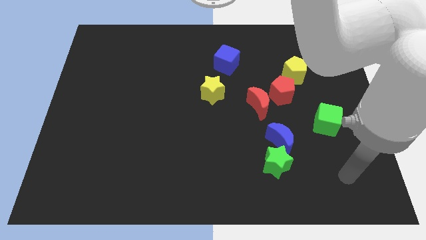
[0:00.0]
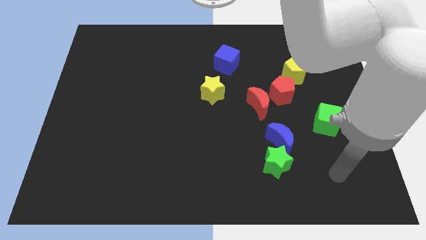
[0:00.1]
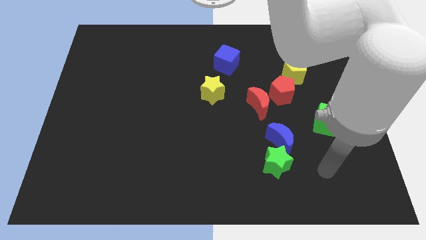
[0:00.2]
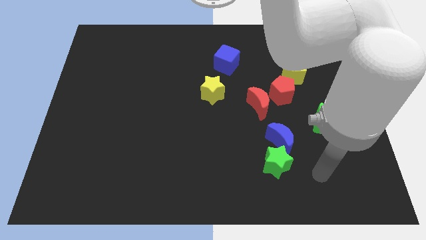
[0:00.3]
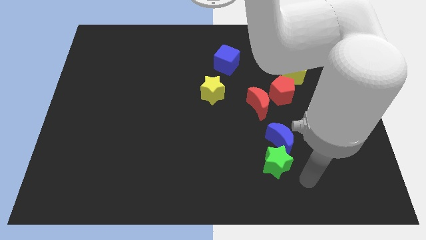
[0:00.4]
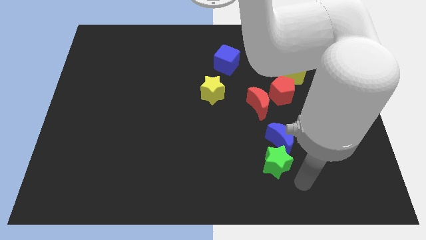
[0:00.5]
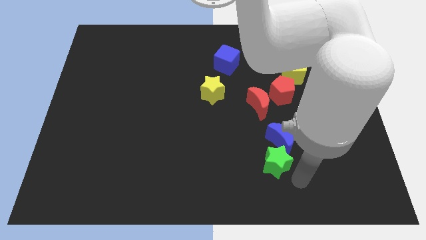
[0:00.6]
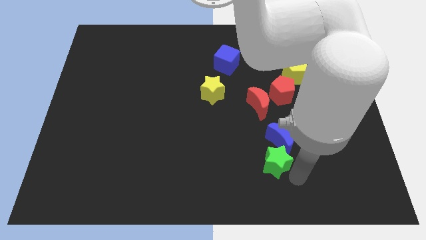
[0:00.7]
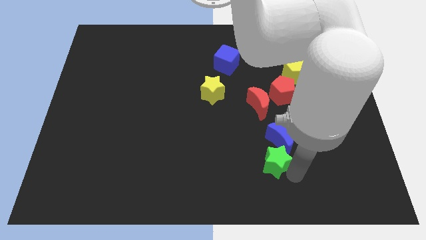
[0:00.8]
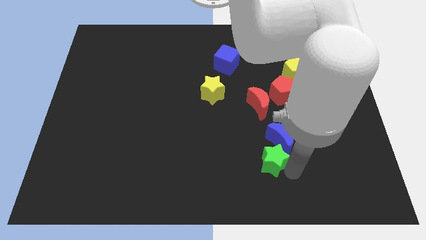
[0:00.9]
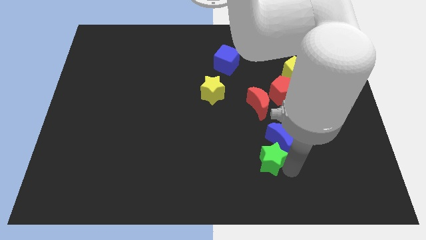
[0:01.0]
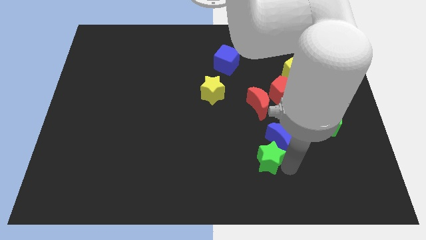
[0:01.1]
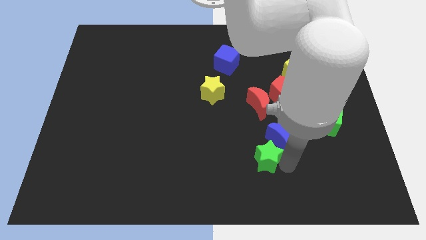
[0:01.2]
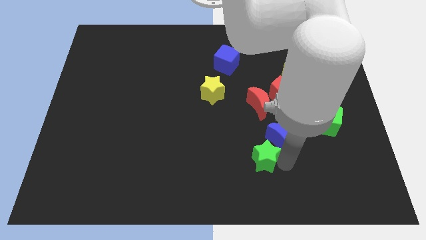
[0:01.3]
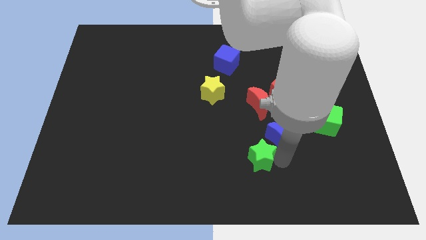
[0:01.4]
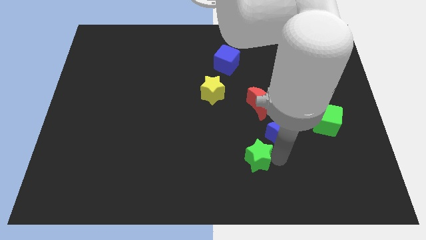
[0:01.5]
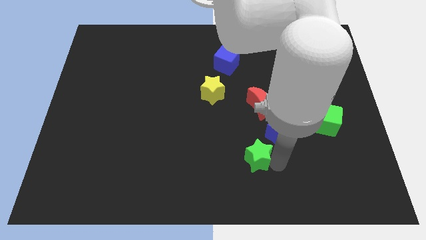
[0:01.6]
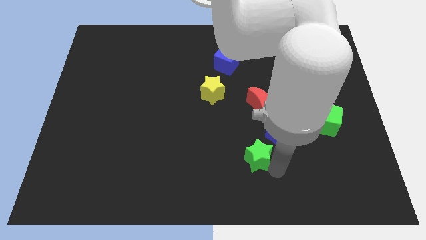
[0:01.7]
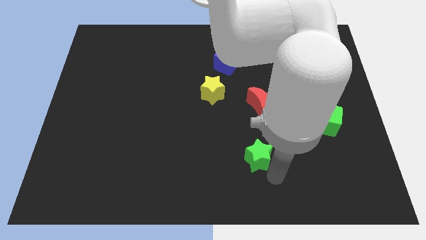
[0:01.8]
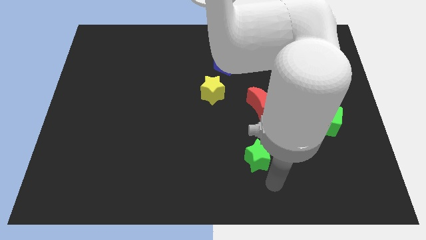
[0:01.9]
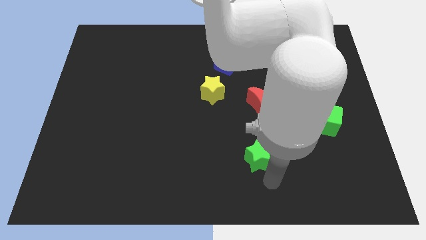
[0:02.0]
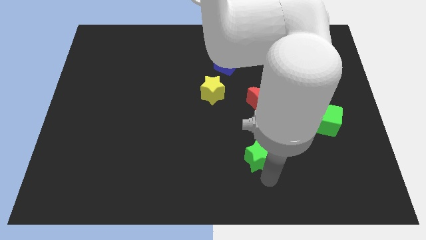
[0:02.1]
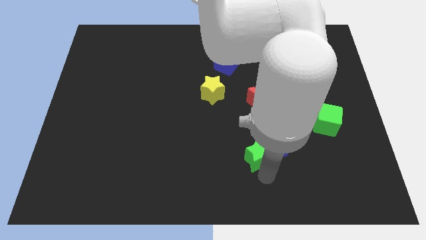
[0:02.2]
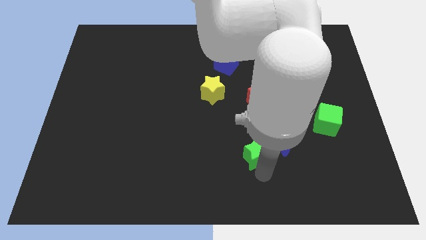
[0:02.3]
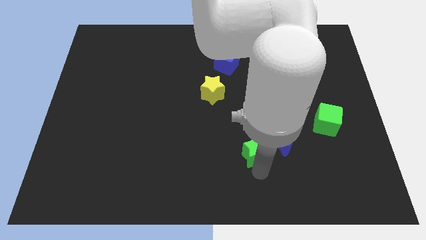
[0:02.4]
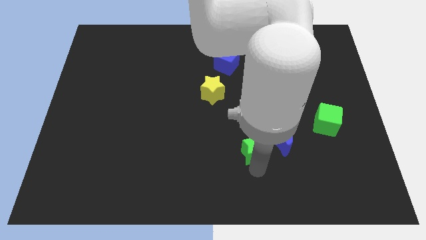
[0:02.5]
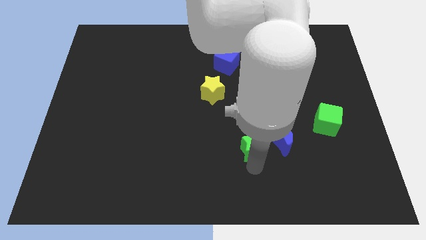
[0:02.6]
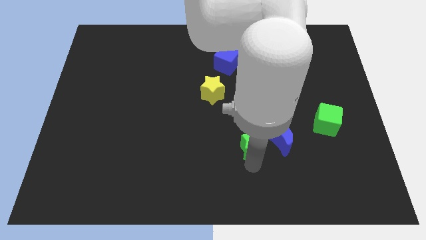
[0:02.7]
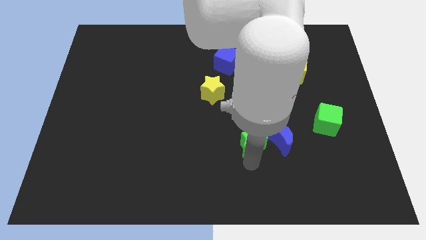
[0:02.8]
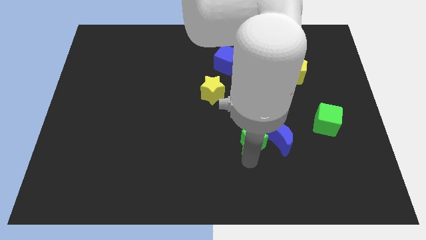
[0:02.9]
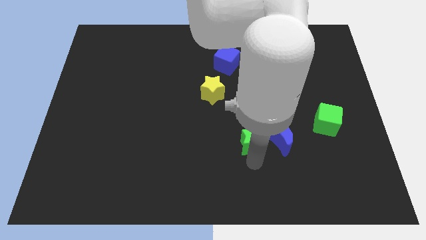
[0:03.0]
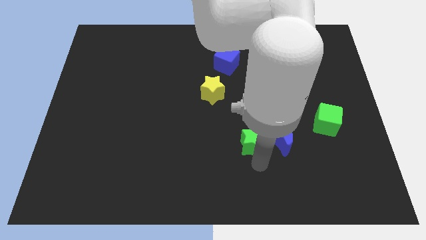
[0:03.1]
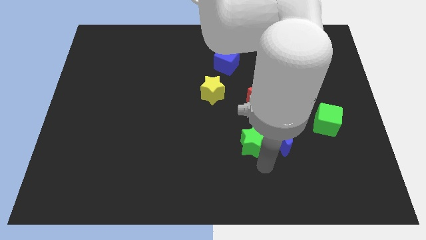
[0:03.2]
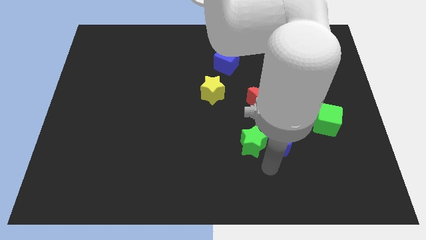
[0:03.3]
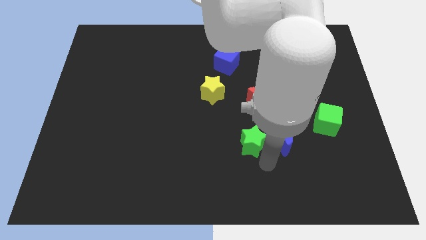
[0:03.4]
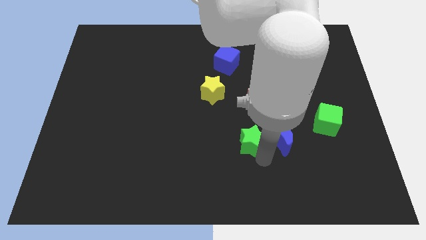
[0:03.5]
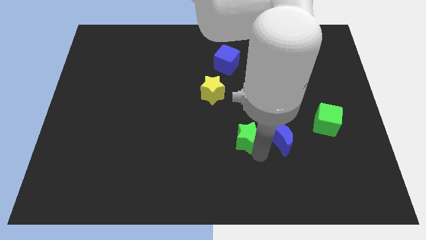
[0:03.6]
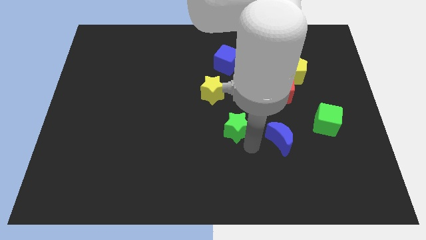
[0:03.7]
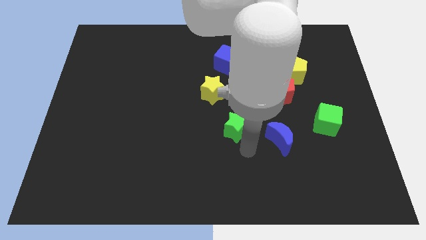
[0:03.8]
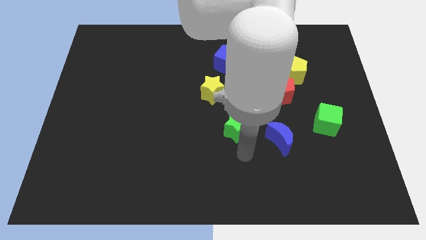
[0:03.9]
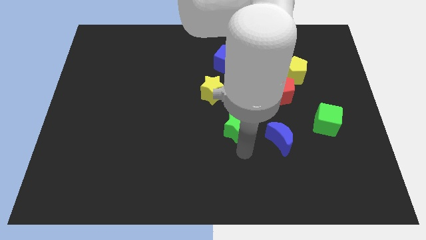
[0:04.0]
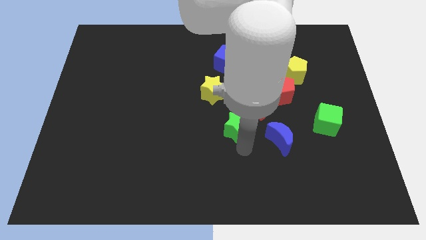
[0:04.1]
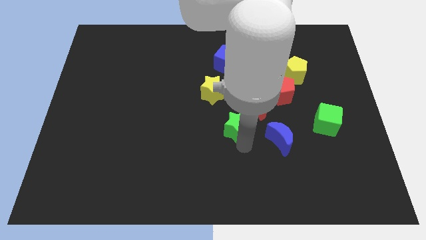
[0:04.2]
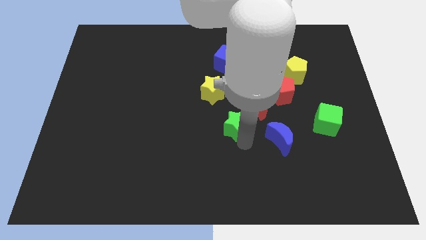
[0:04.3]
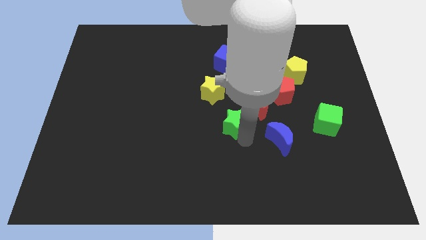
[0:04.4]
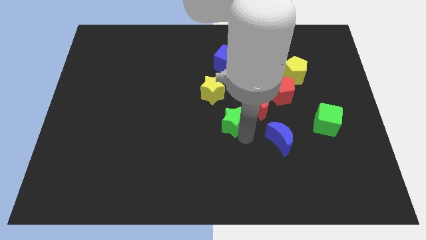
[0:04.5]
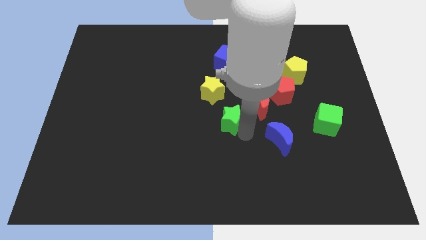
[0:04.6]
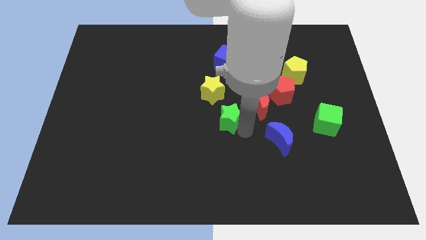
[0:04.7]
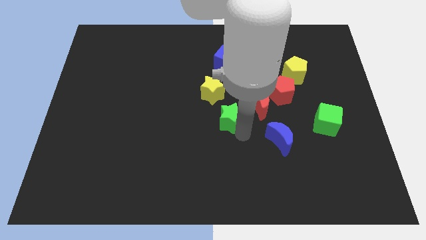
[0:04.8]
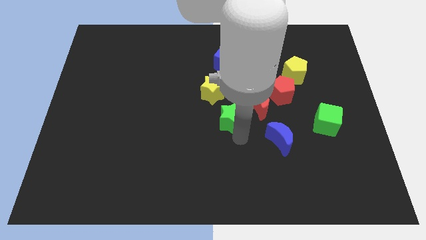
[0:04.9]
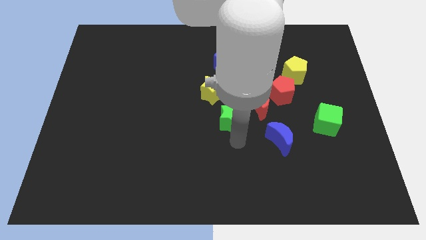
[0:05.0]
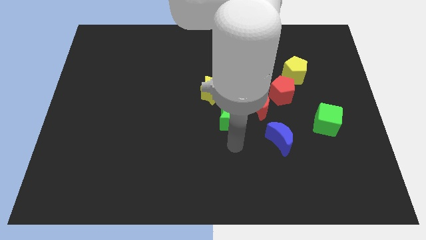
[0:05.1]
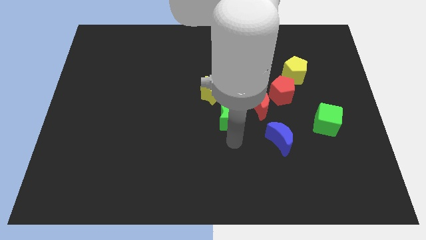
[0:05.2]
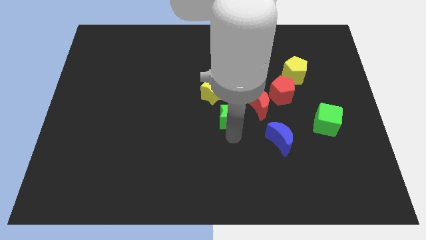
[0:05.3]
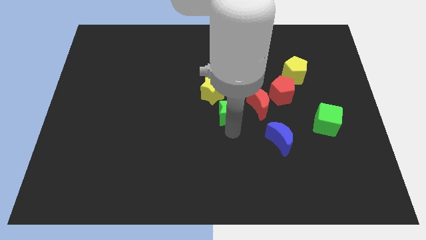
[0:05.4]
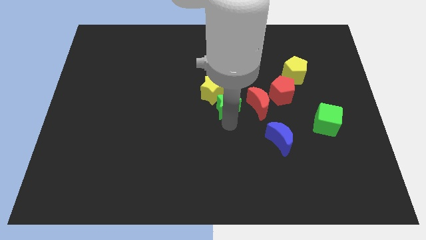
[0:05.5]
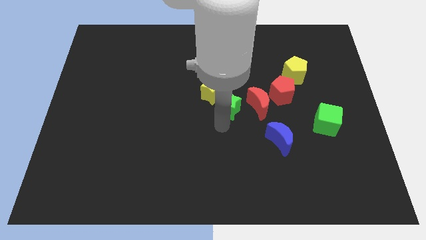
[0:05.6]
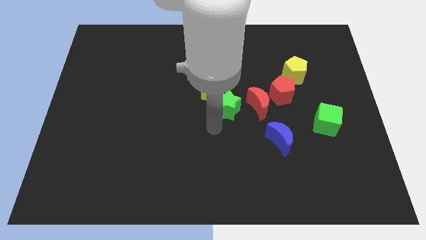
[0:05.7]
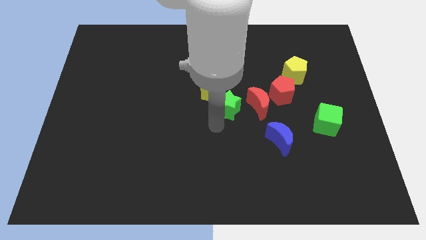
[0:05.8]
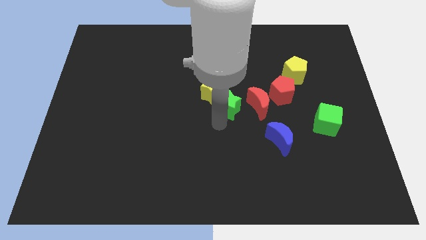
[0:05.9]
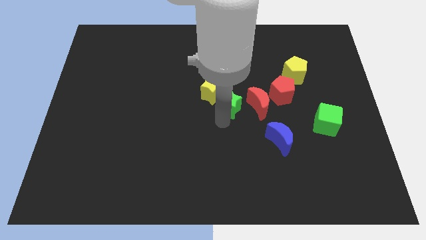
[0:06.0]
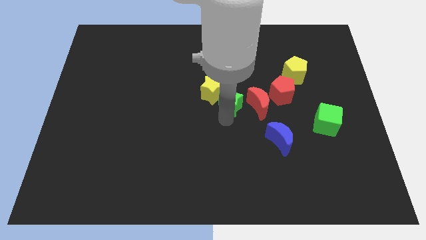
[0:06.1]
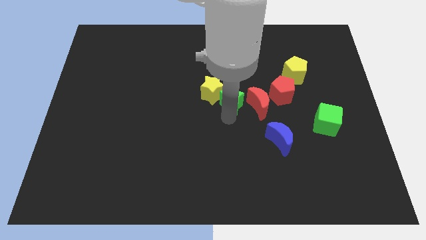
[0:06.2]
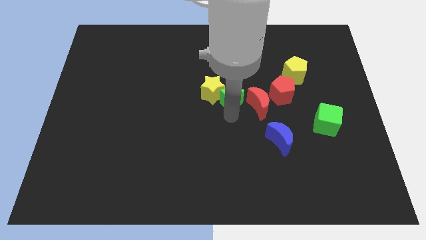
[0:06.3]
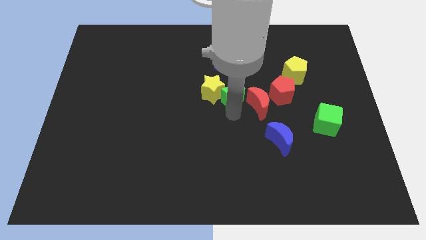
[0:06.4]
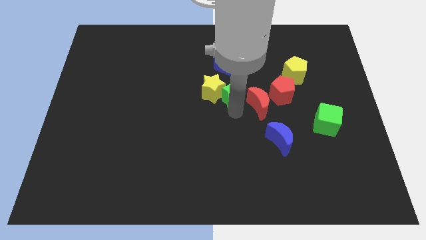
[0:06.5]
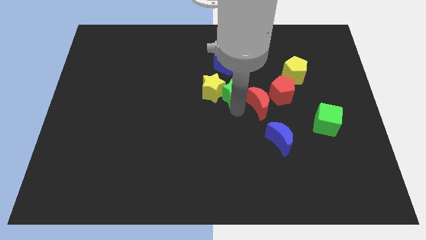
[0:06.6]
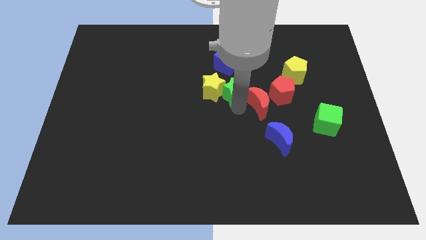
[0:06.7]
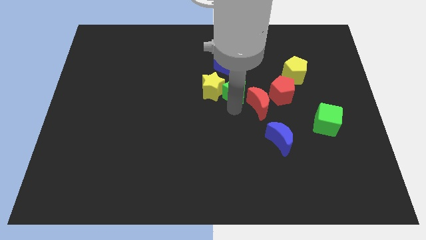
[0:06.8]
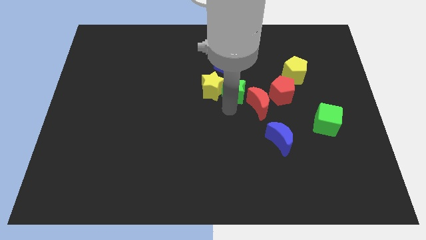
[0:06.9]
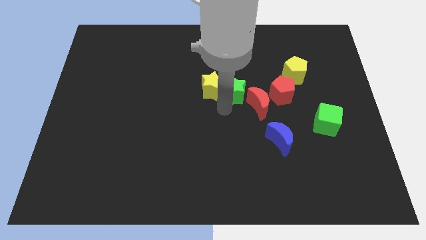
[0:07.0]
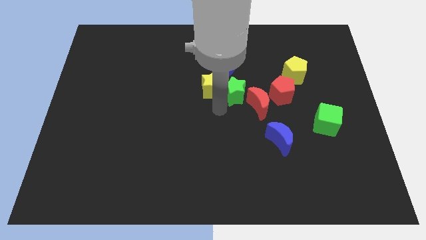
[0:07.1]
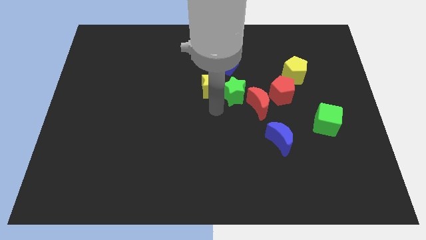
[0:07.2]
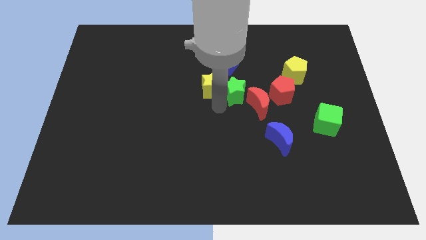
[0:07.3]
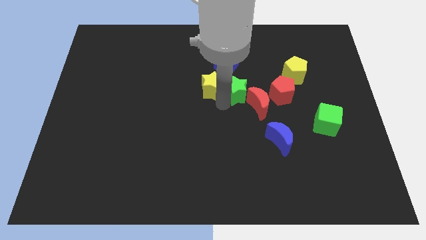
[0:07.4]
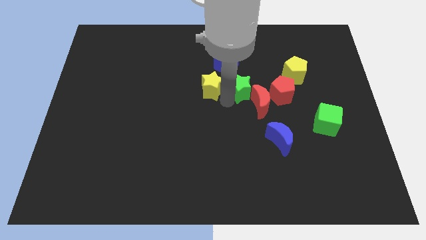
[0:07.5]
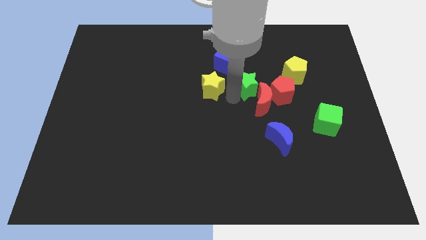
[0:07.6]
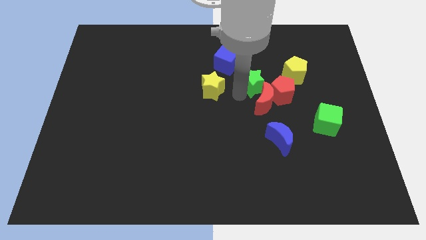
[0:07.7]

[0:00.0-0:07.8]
slide the green star left of the yellow pentagon
